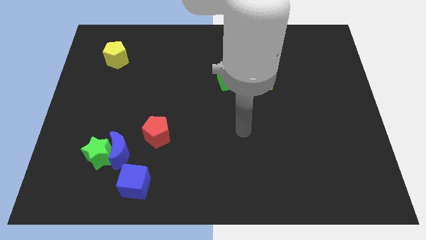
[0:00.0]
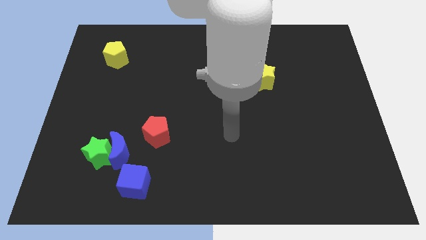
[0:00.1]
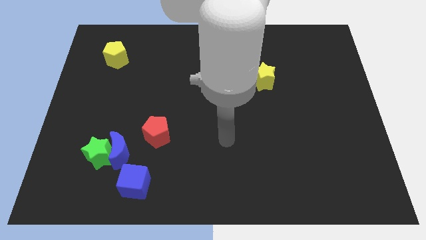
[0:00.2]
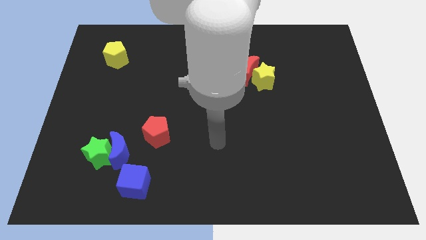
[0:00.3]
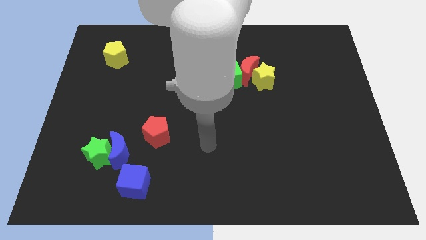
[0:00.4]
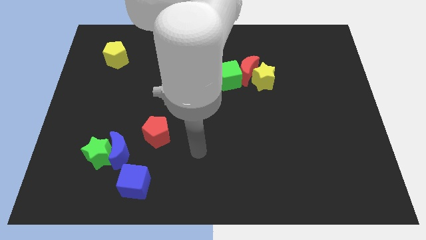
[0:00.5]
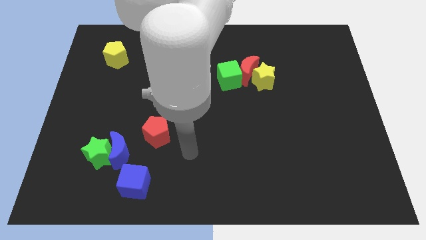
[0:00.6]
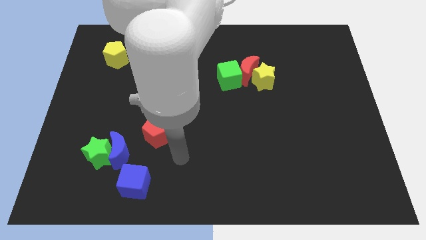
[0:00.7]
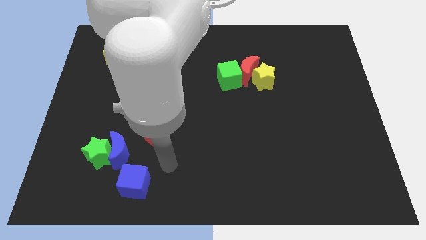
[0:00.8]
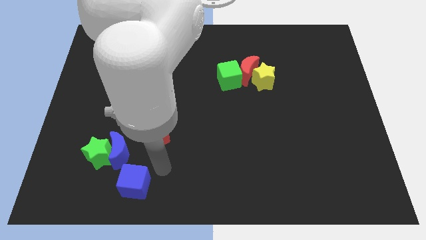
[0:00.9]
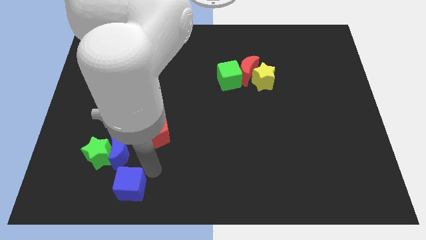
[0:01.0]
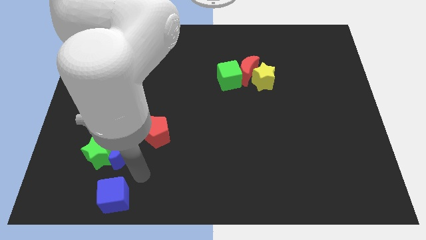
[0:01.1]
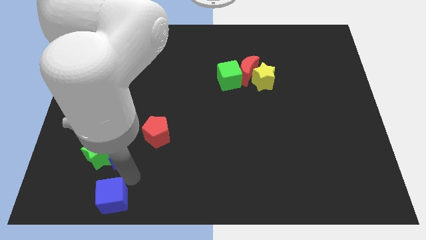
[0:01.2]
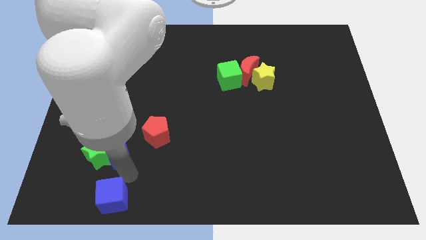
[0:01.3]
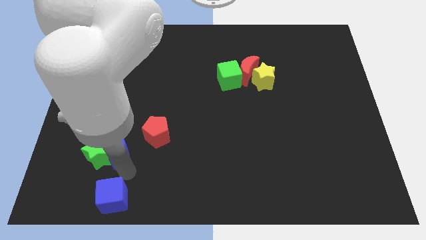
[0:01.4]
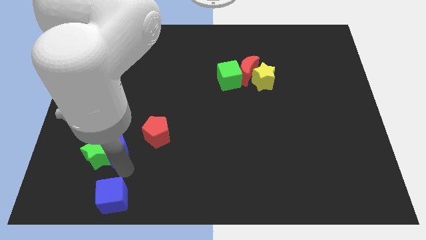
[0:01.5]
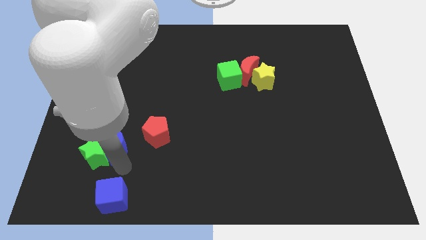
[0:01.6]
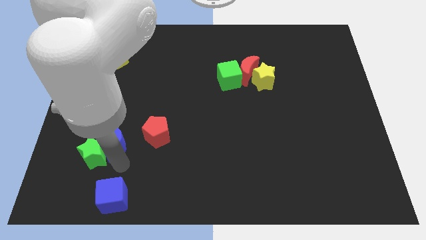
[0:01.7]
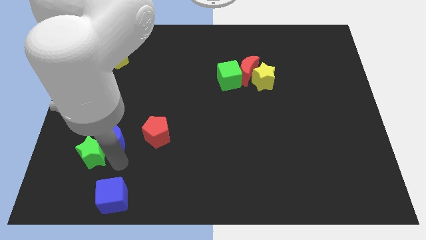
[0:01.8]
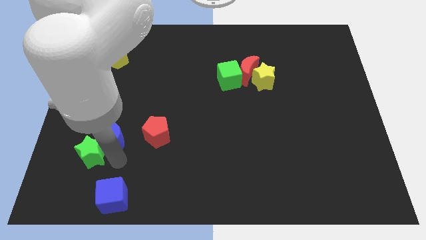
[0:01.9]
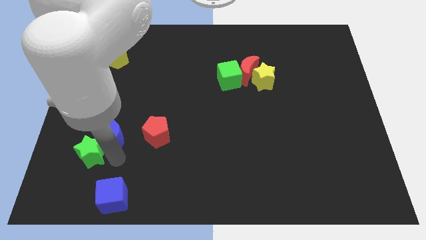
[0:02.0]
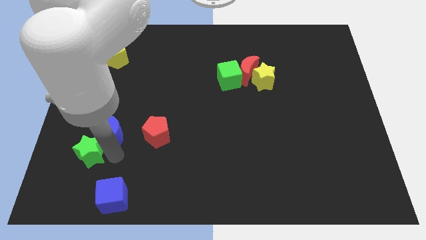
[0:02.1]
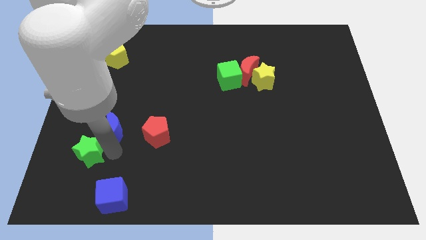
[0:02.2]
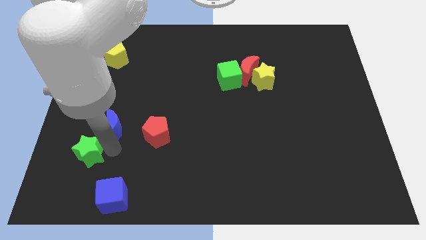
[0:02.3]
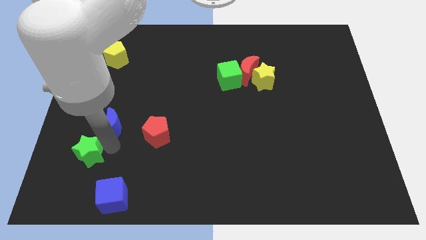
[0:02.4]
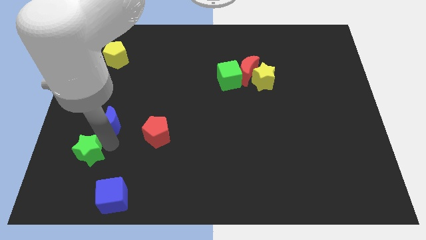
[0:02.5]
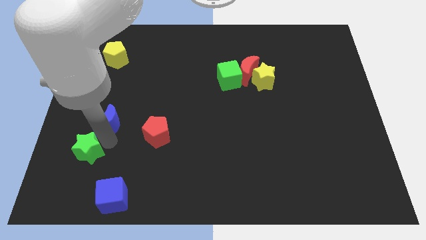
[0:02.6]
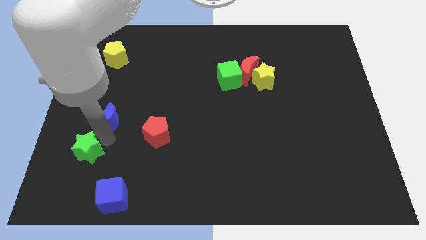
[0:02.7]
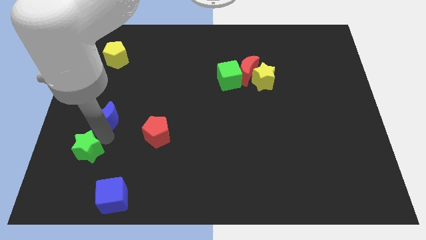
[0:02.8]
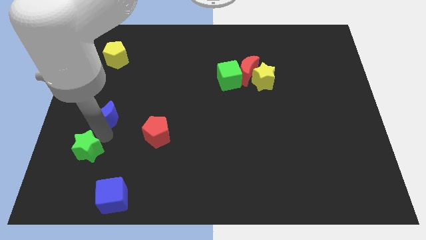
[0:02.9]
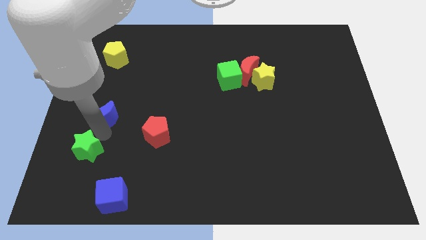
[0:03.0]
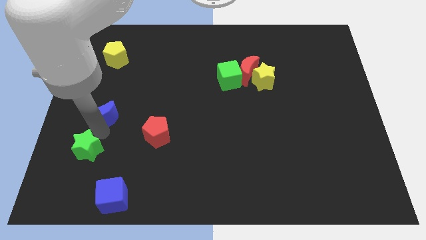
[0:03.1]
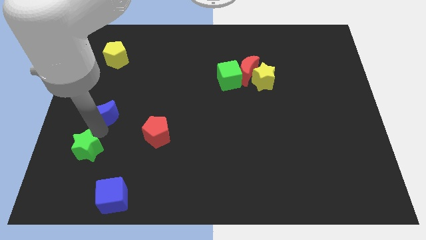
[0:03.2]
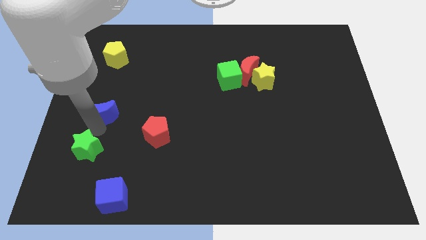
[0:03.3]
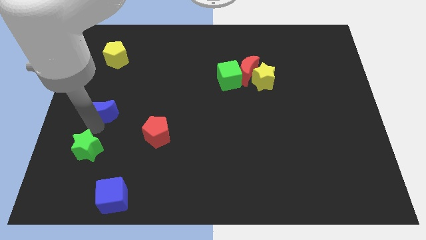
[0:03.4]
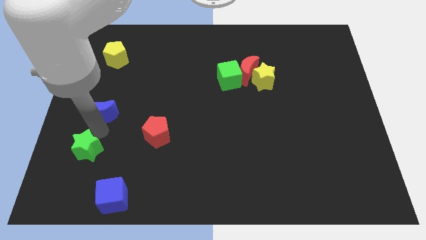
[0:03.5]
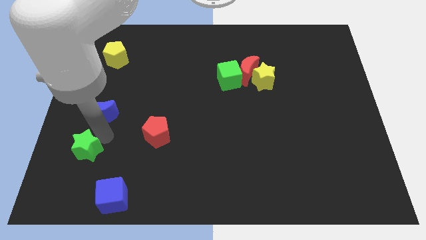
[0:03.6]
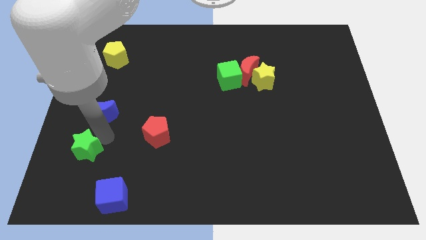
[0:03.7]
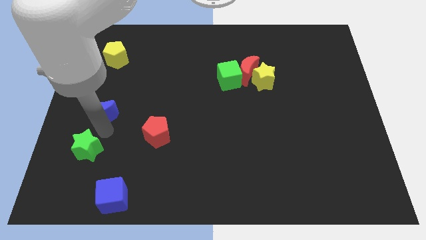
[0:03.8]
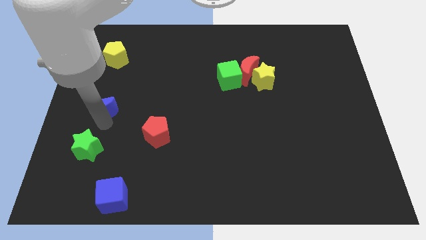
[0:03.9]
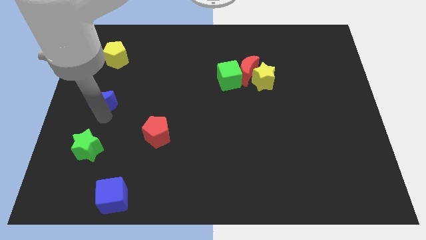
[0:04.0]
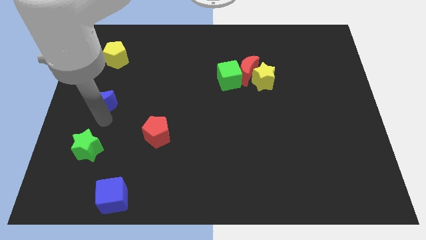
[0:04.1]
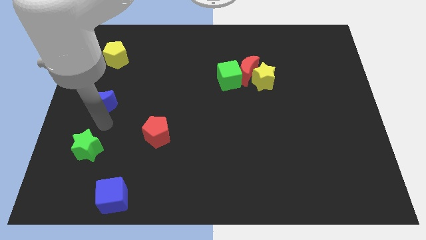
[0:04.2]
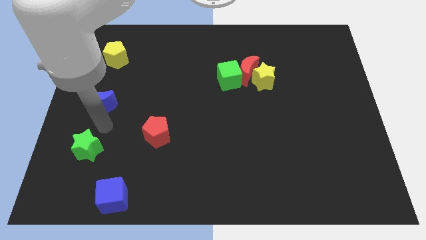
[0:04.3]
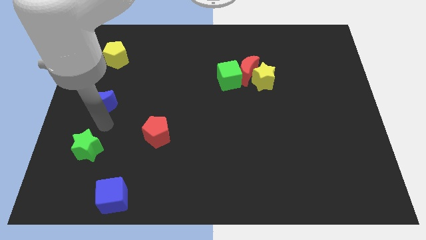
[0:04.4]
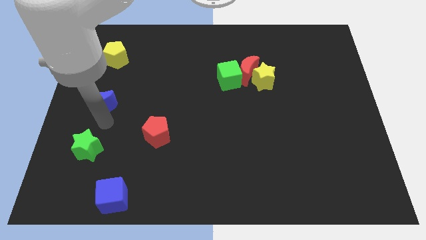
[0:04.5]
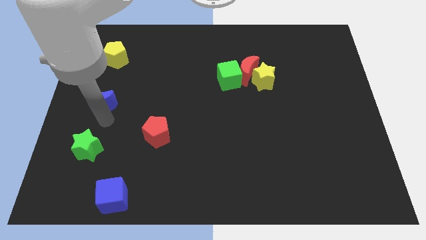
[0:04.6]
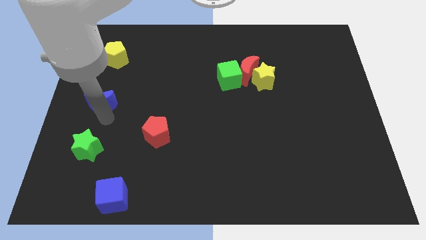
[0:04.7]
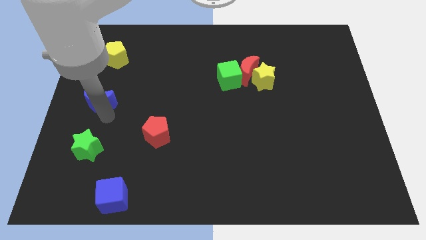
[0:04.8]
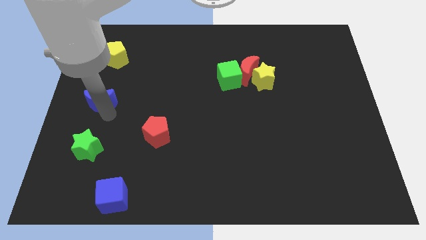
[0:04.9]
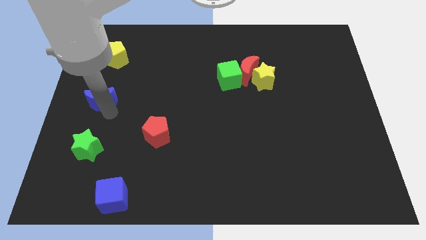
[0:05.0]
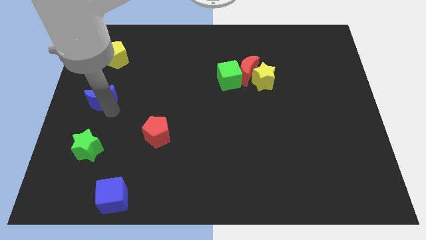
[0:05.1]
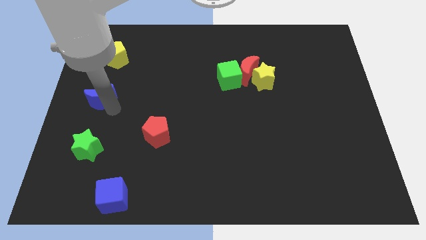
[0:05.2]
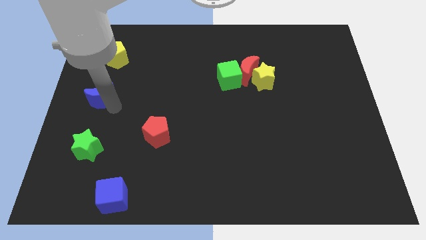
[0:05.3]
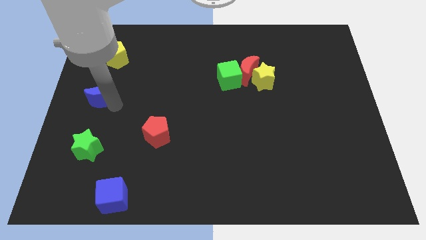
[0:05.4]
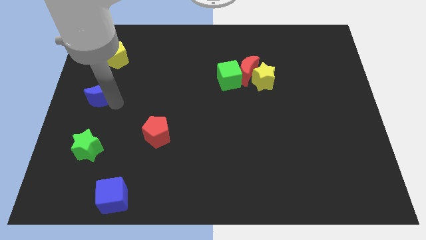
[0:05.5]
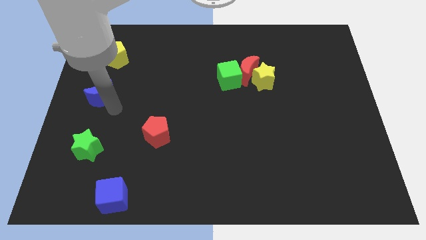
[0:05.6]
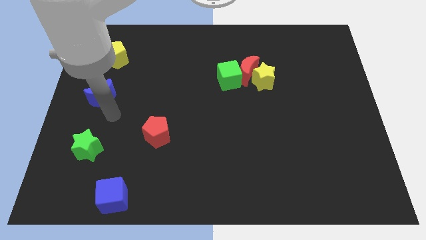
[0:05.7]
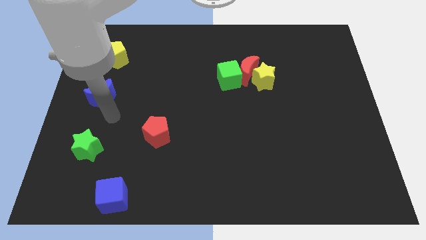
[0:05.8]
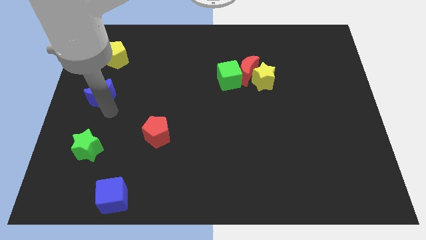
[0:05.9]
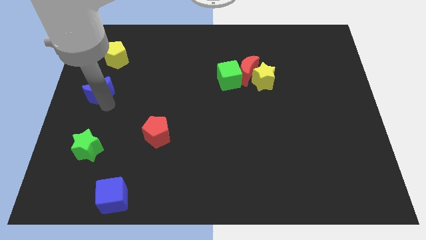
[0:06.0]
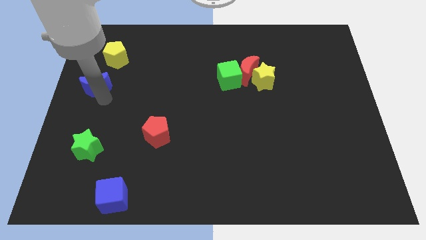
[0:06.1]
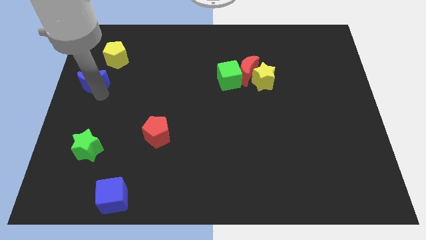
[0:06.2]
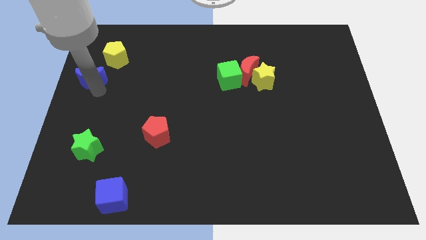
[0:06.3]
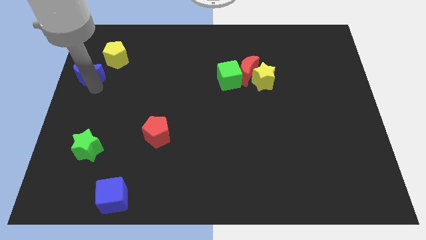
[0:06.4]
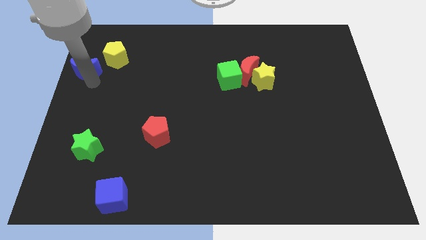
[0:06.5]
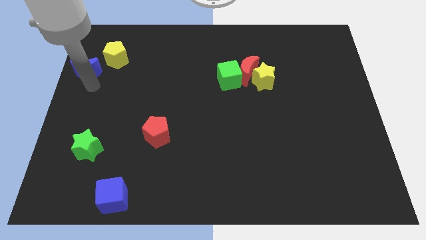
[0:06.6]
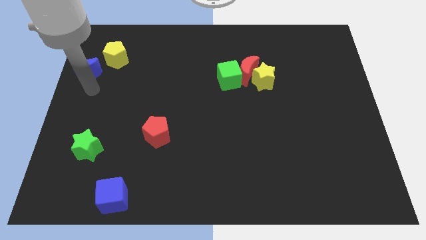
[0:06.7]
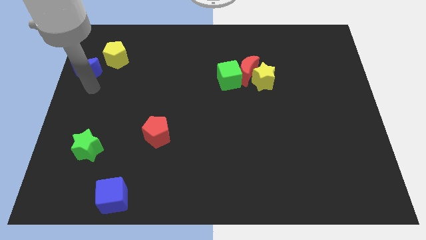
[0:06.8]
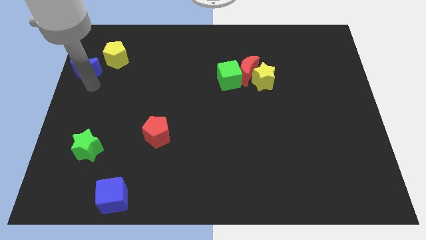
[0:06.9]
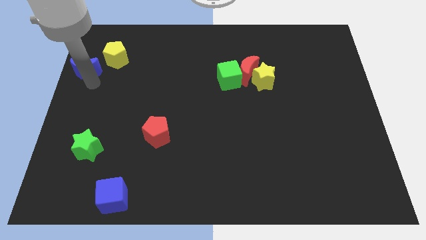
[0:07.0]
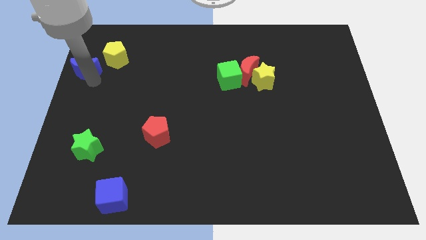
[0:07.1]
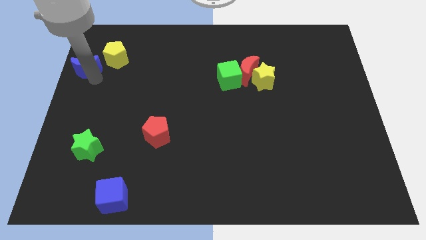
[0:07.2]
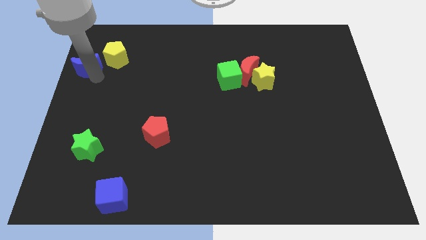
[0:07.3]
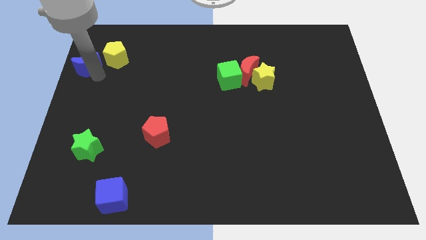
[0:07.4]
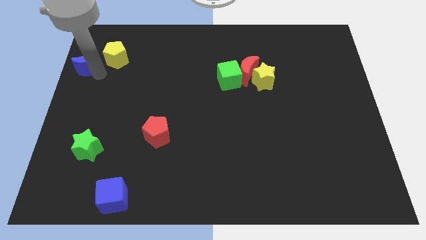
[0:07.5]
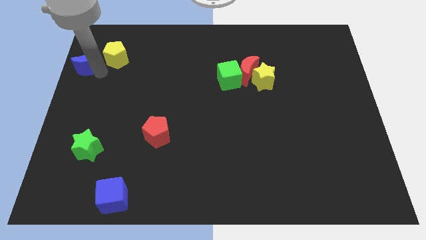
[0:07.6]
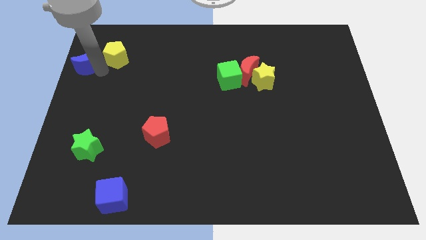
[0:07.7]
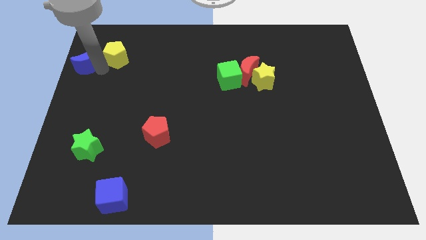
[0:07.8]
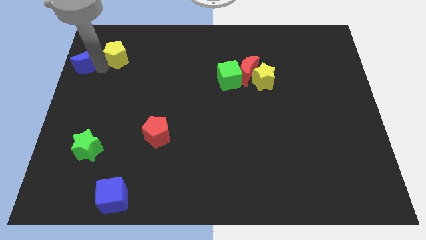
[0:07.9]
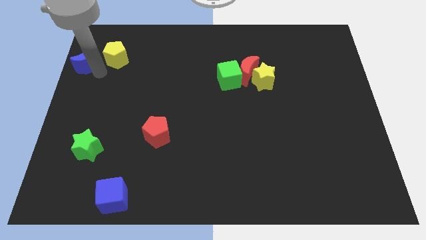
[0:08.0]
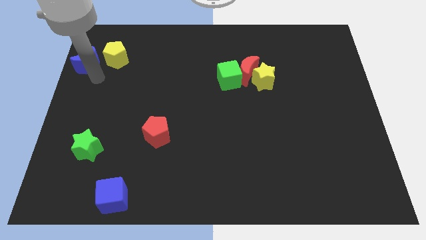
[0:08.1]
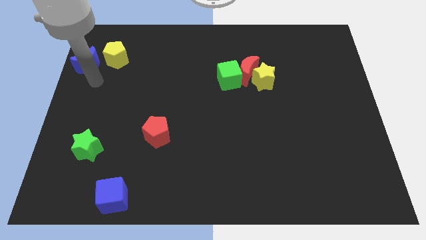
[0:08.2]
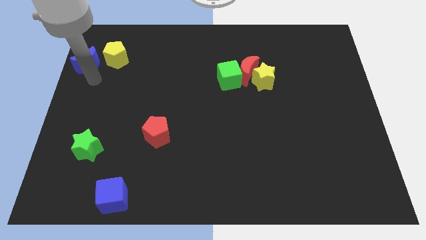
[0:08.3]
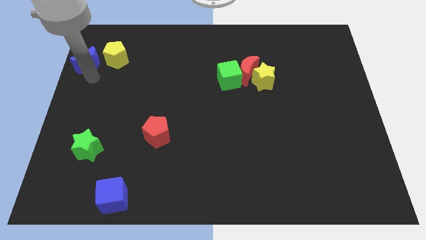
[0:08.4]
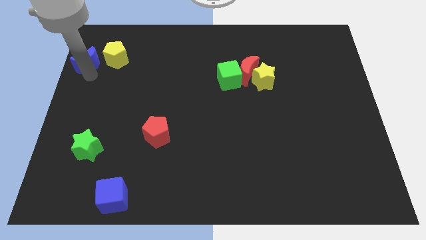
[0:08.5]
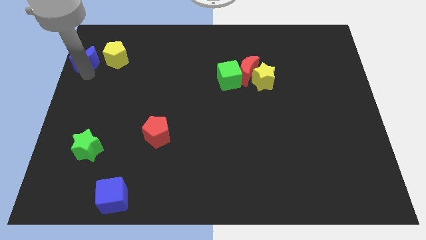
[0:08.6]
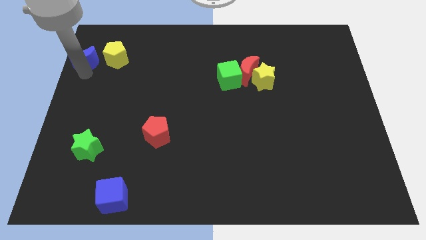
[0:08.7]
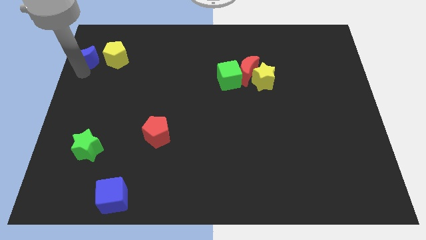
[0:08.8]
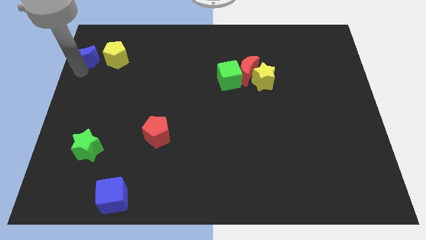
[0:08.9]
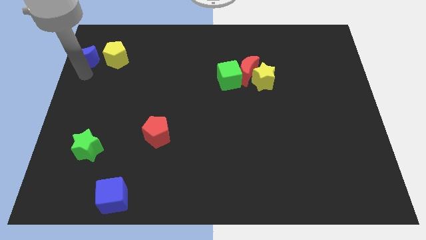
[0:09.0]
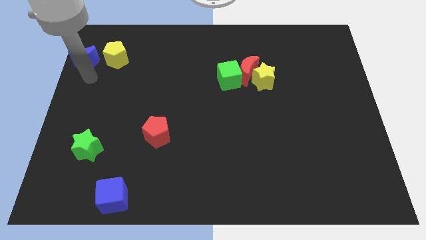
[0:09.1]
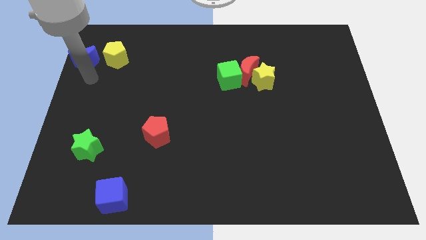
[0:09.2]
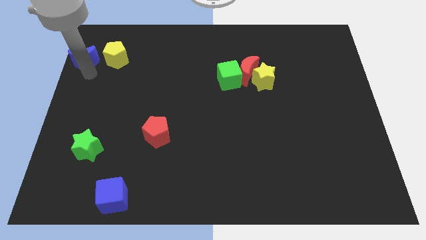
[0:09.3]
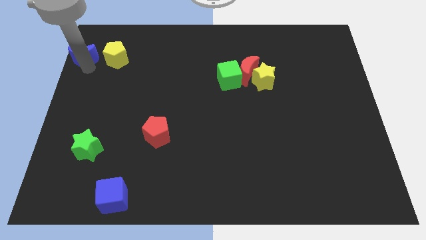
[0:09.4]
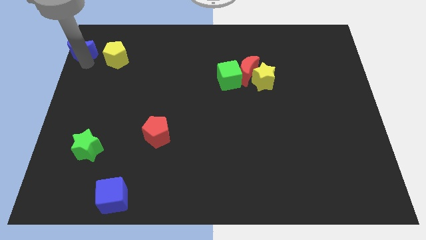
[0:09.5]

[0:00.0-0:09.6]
slide the blue moon to the top left
